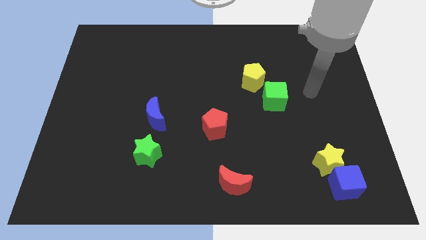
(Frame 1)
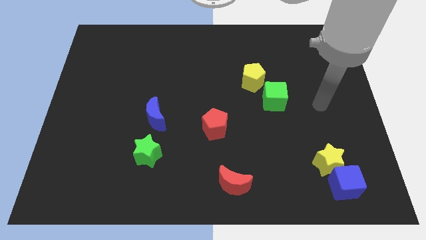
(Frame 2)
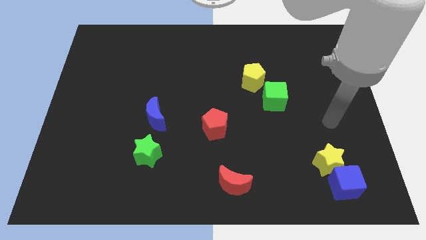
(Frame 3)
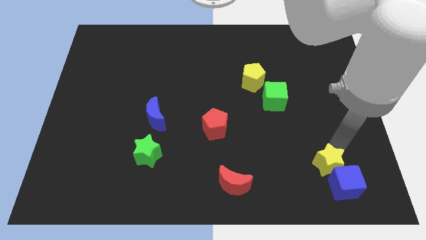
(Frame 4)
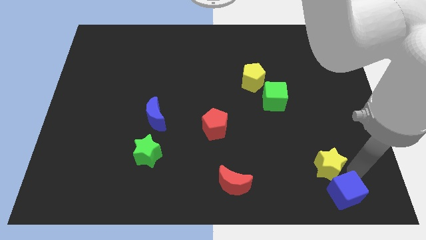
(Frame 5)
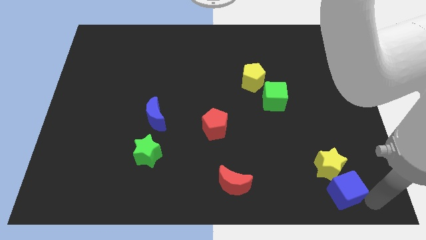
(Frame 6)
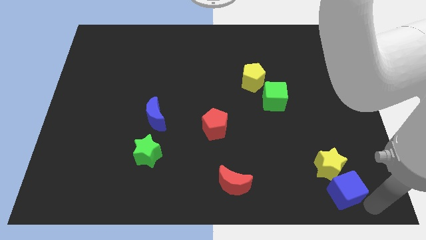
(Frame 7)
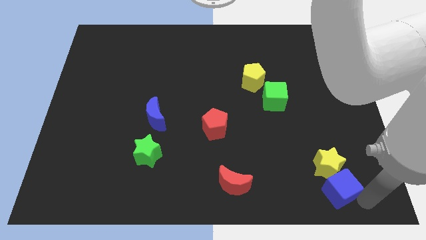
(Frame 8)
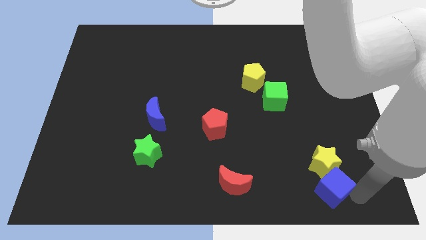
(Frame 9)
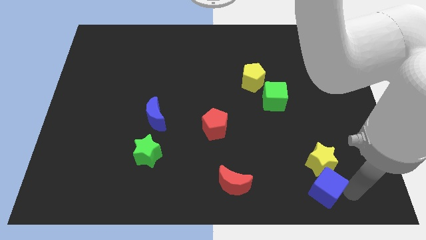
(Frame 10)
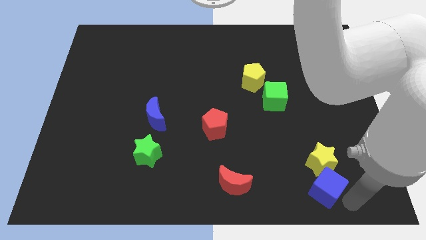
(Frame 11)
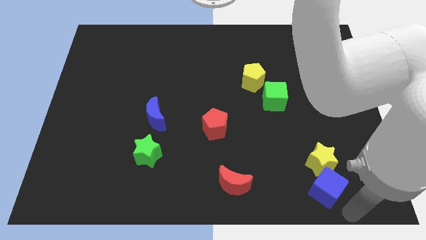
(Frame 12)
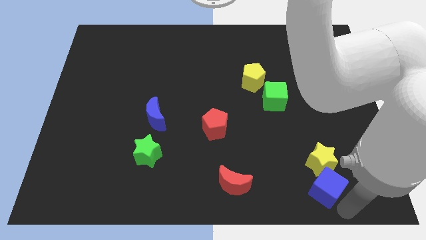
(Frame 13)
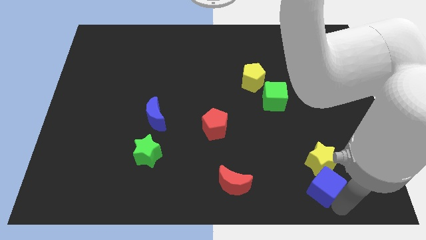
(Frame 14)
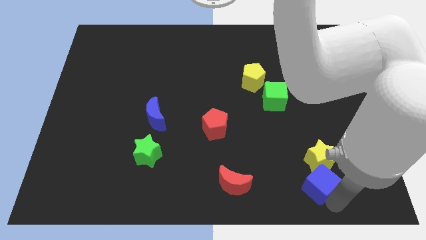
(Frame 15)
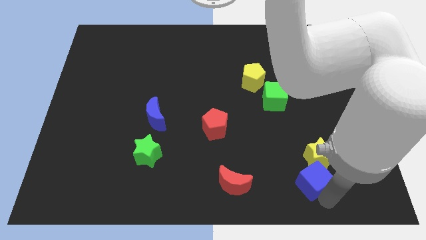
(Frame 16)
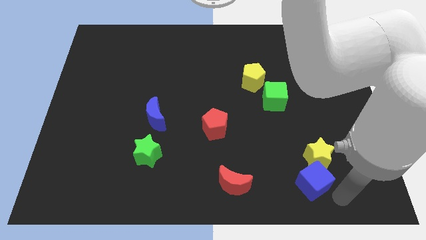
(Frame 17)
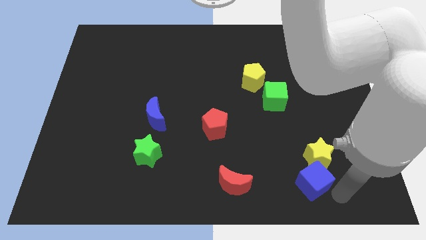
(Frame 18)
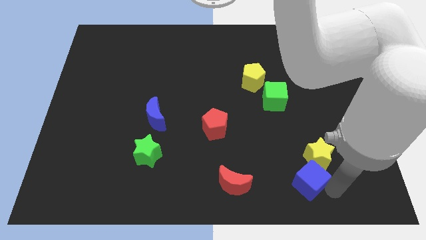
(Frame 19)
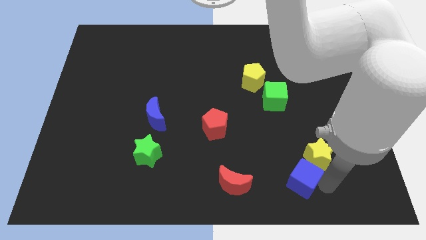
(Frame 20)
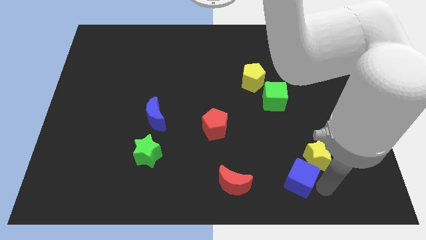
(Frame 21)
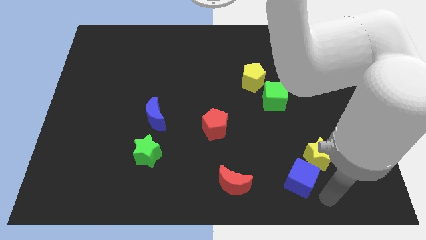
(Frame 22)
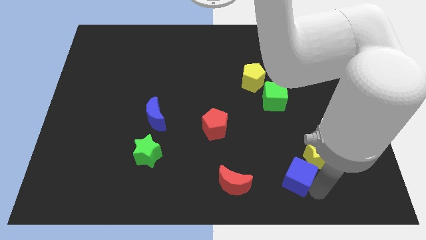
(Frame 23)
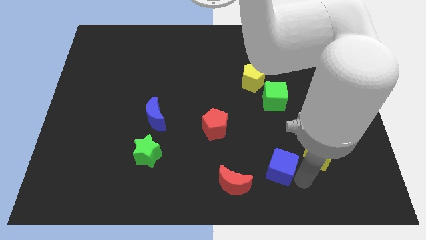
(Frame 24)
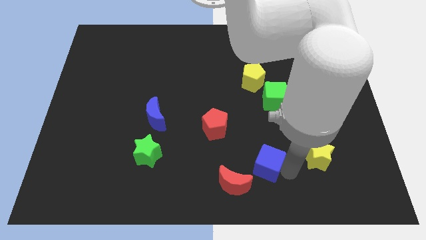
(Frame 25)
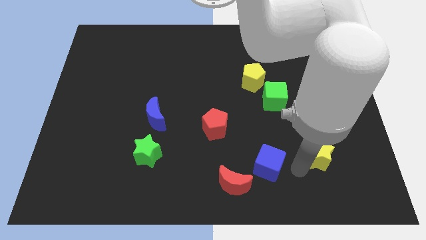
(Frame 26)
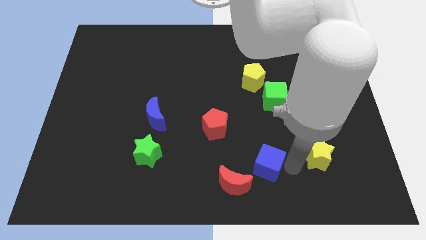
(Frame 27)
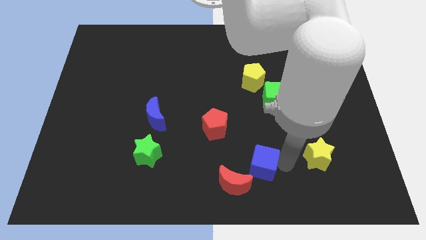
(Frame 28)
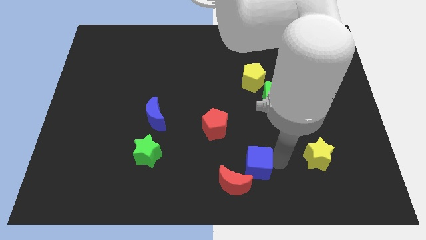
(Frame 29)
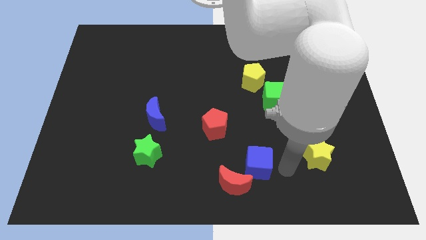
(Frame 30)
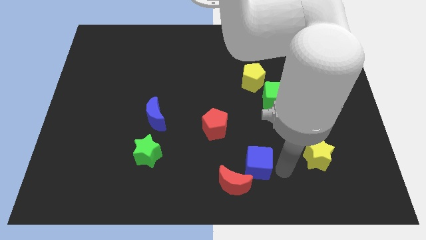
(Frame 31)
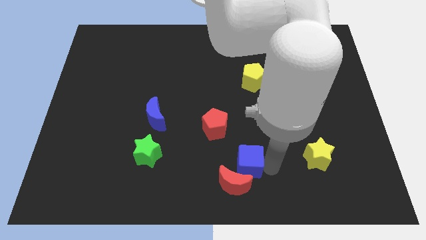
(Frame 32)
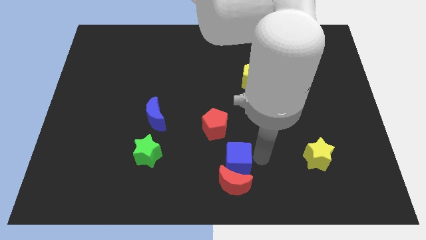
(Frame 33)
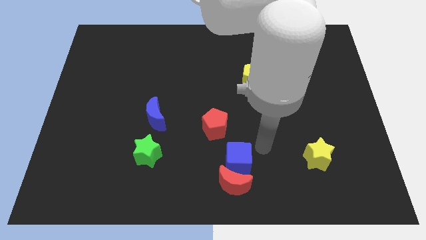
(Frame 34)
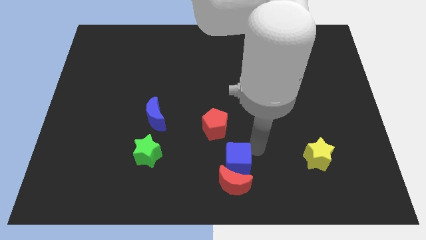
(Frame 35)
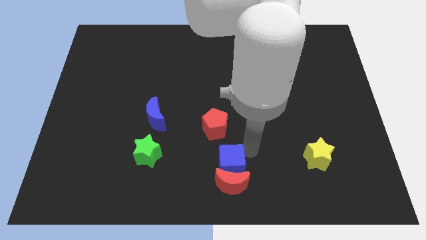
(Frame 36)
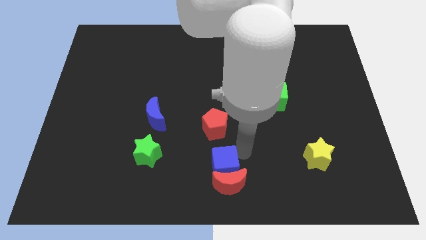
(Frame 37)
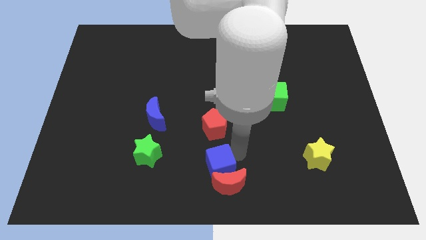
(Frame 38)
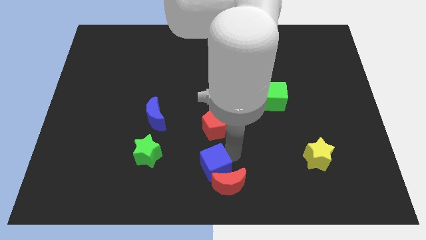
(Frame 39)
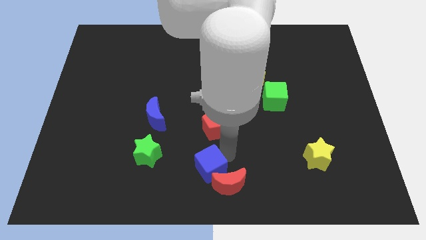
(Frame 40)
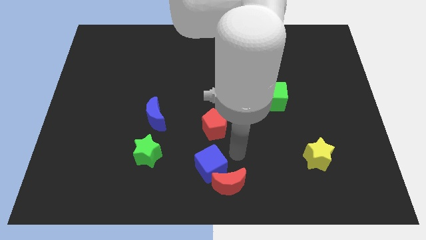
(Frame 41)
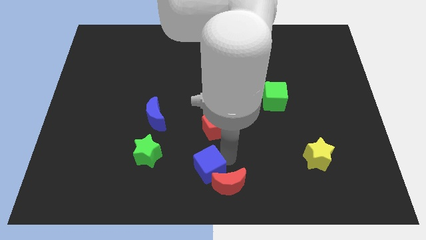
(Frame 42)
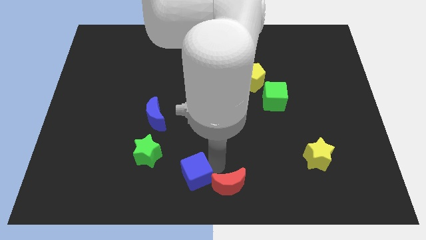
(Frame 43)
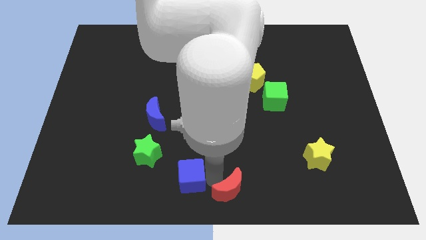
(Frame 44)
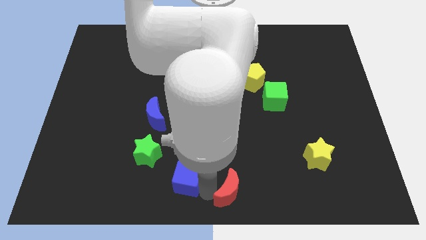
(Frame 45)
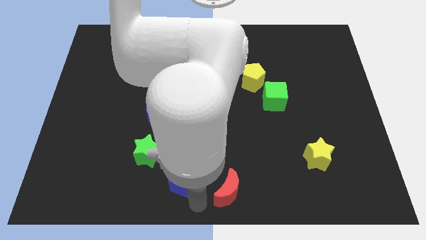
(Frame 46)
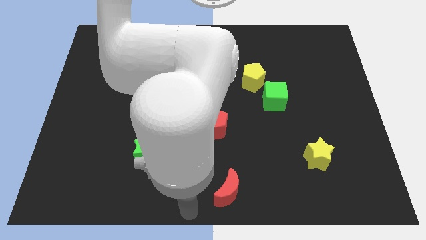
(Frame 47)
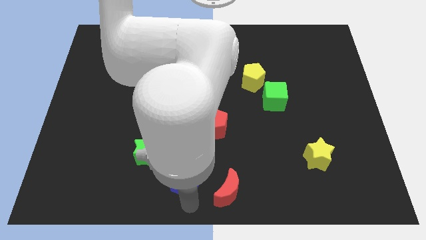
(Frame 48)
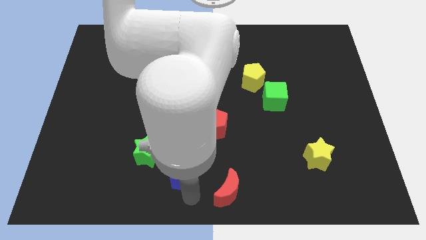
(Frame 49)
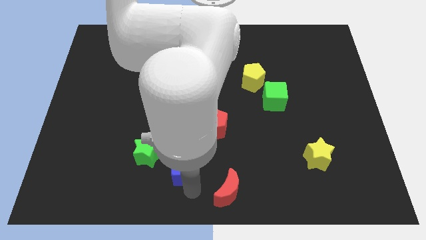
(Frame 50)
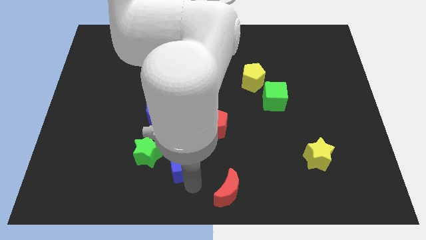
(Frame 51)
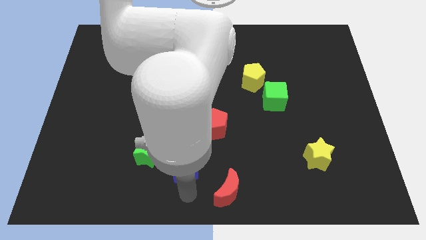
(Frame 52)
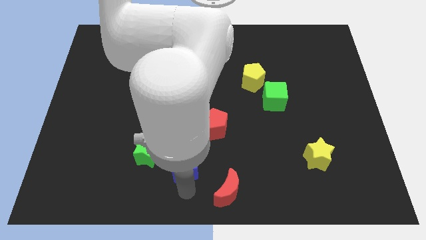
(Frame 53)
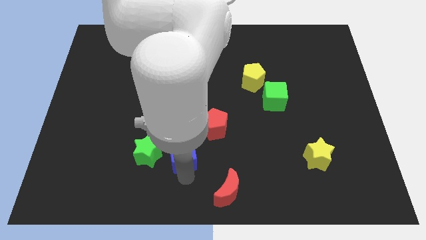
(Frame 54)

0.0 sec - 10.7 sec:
push the blue cube to the bottom right of the blue moon

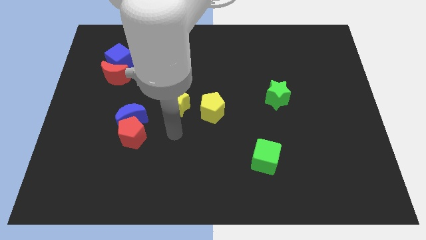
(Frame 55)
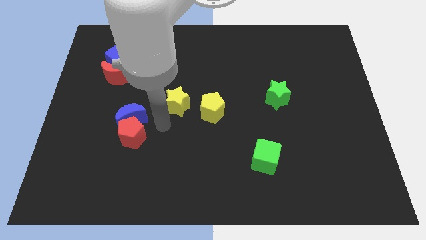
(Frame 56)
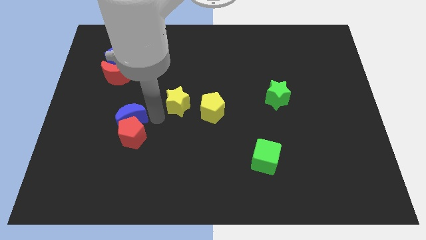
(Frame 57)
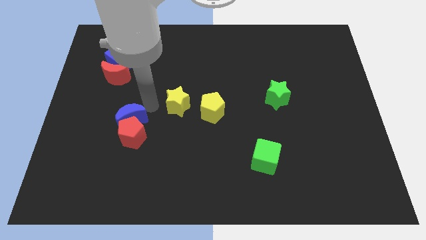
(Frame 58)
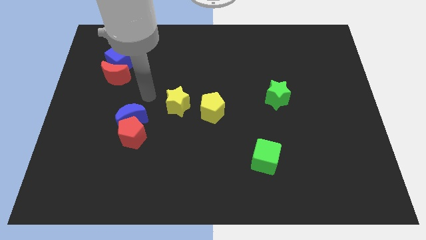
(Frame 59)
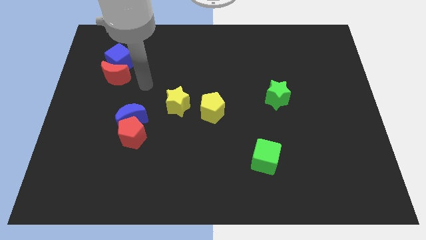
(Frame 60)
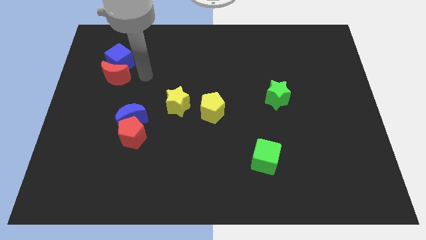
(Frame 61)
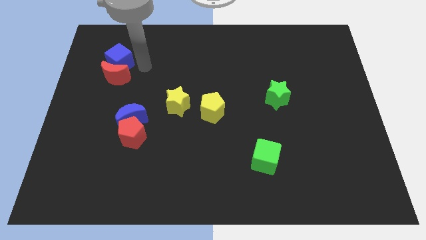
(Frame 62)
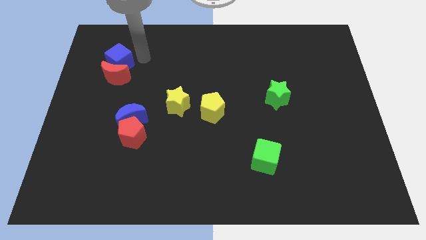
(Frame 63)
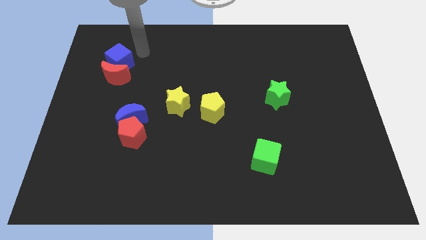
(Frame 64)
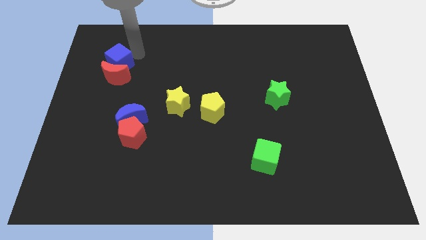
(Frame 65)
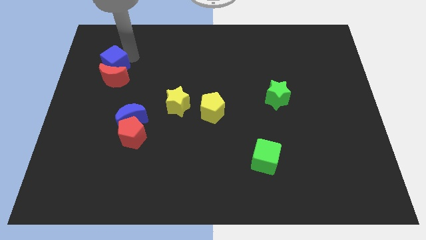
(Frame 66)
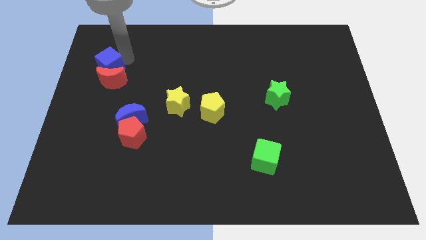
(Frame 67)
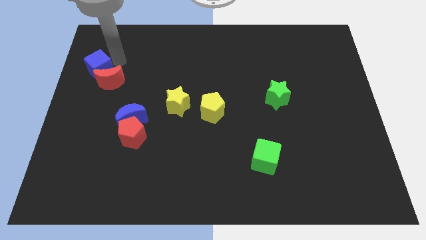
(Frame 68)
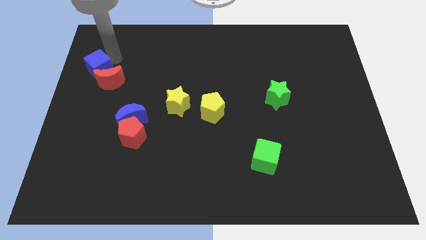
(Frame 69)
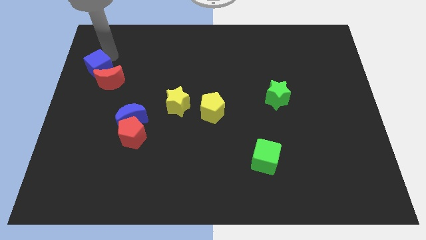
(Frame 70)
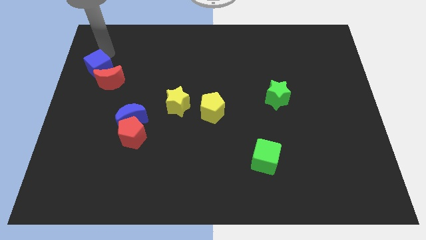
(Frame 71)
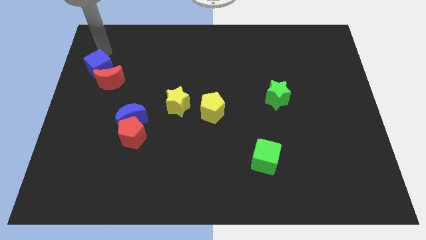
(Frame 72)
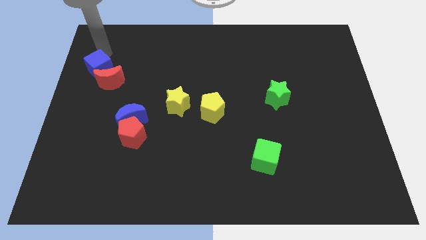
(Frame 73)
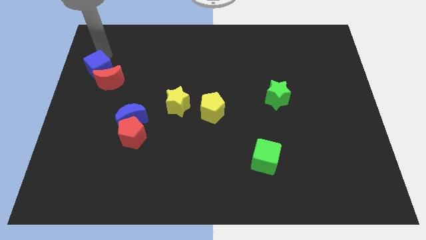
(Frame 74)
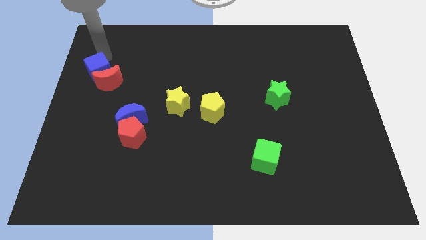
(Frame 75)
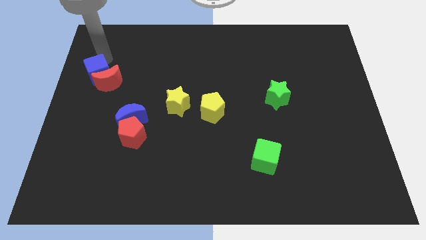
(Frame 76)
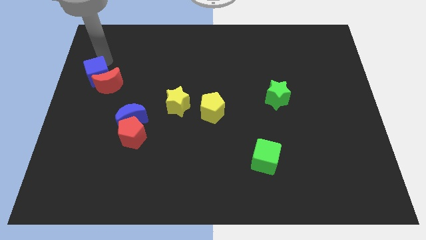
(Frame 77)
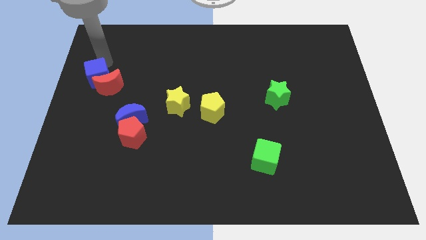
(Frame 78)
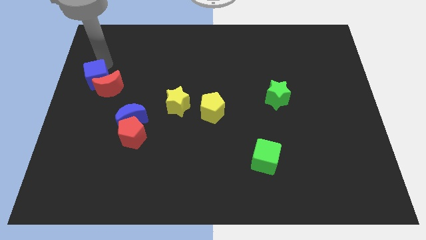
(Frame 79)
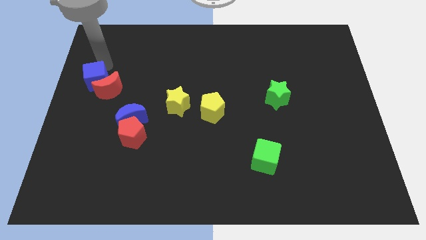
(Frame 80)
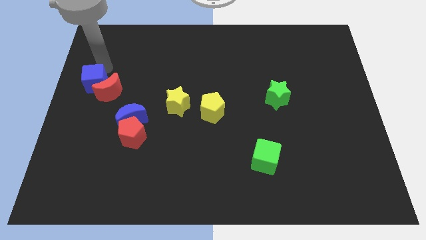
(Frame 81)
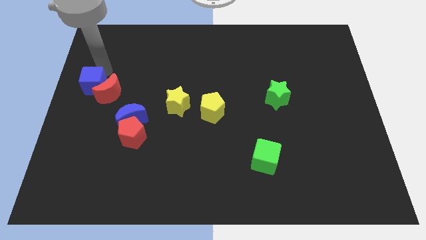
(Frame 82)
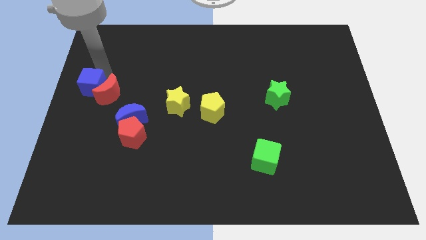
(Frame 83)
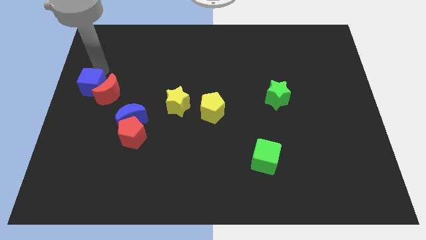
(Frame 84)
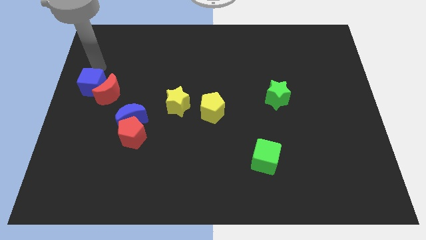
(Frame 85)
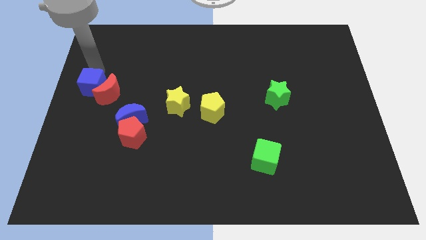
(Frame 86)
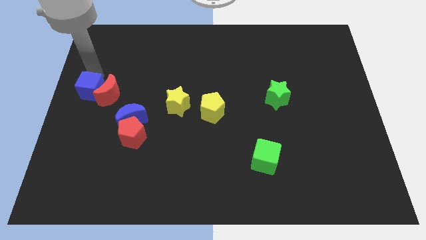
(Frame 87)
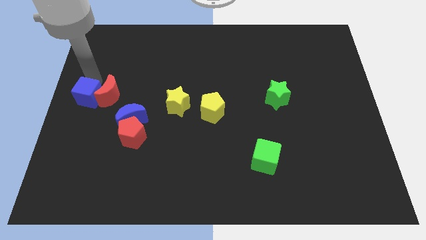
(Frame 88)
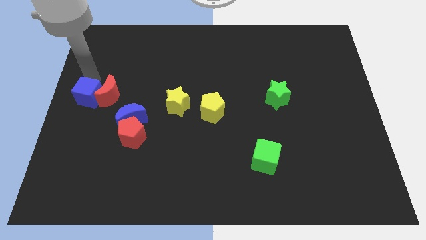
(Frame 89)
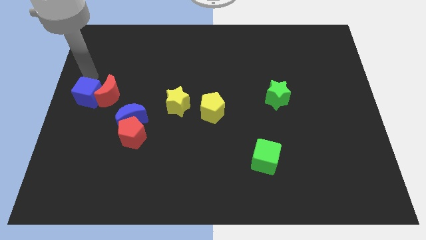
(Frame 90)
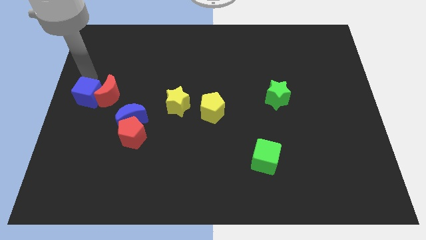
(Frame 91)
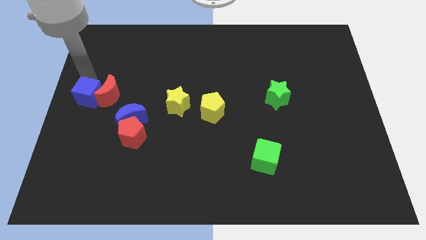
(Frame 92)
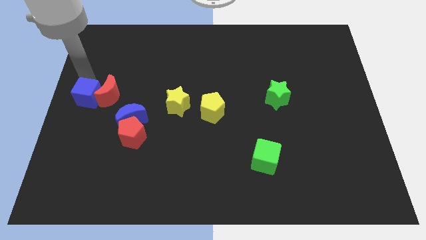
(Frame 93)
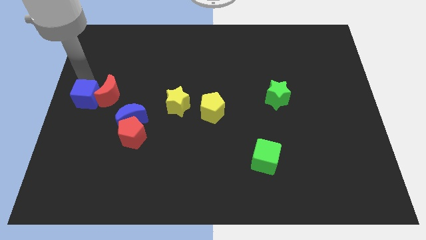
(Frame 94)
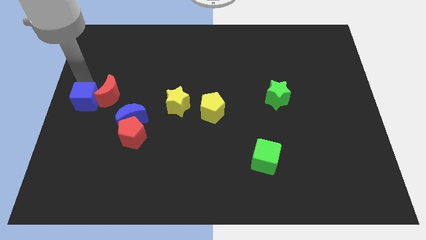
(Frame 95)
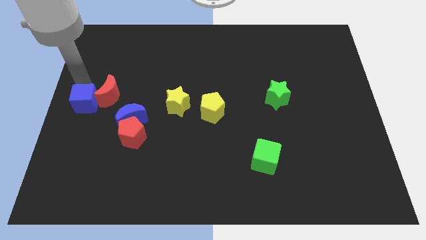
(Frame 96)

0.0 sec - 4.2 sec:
move the blue cube to the left side of the blue moon
